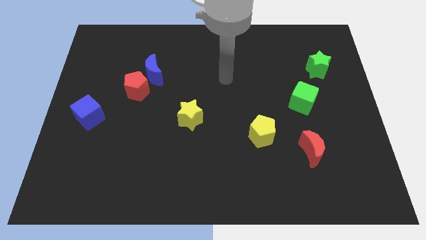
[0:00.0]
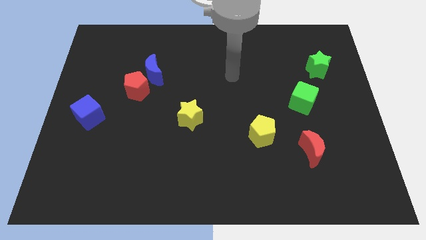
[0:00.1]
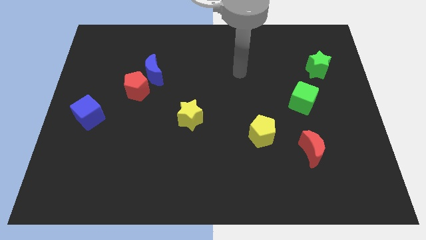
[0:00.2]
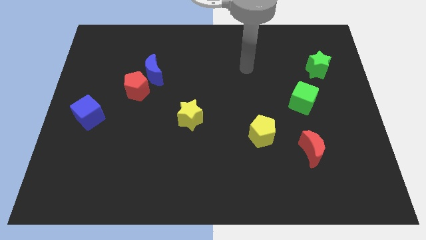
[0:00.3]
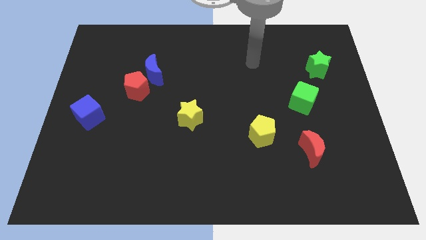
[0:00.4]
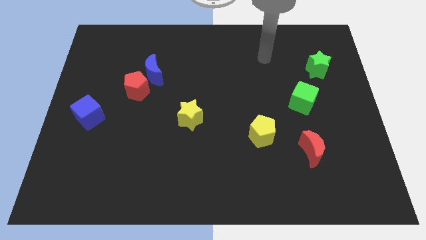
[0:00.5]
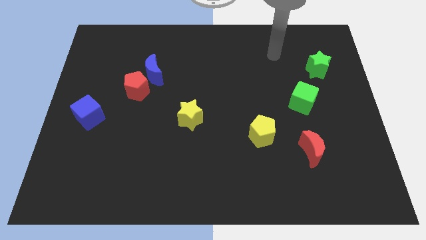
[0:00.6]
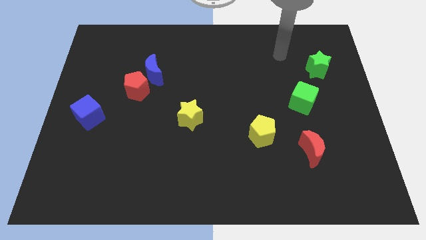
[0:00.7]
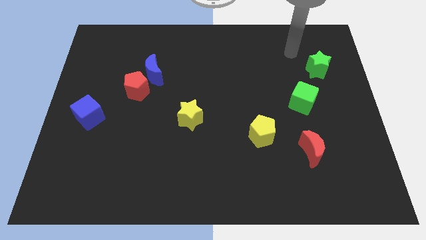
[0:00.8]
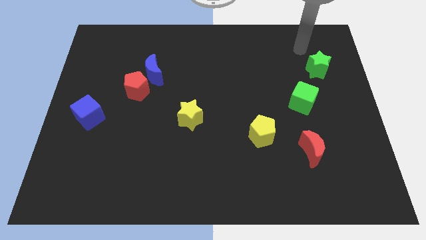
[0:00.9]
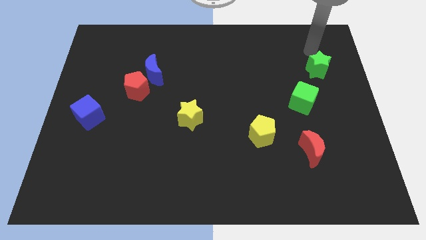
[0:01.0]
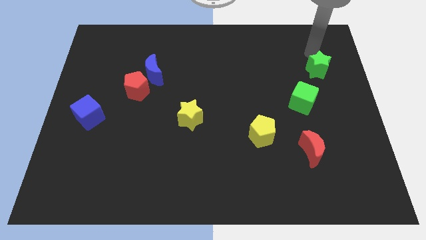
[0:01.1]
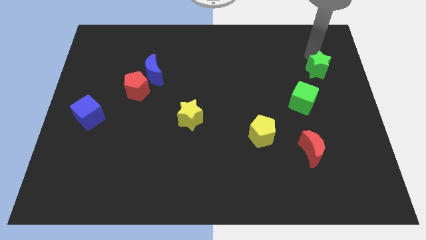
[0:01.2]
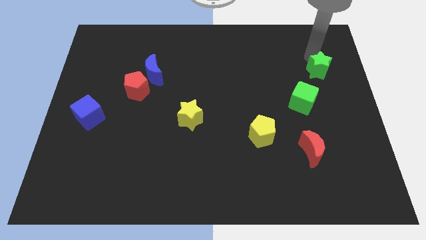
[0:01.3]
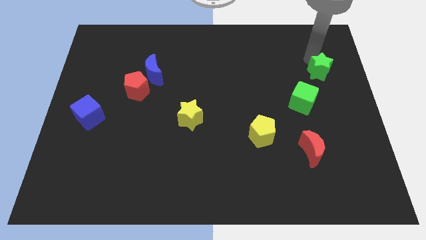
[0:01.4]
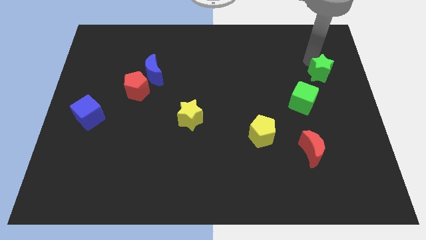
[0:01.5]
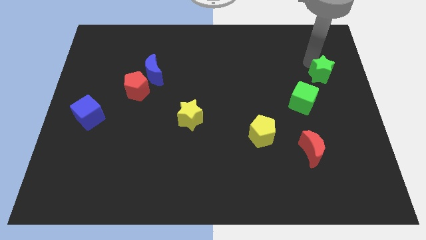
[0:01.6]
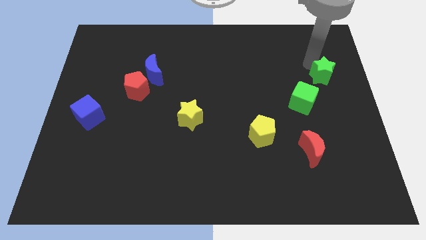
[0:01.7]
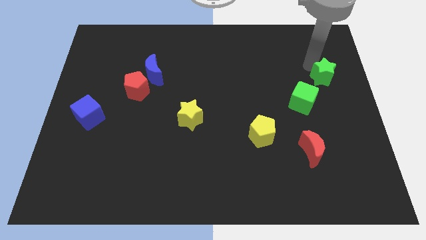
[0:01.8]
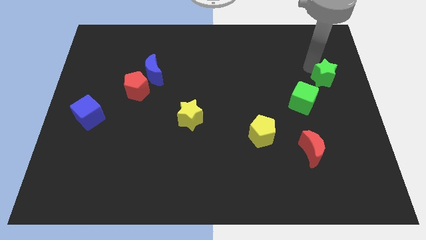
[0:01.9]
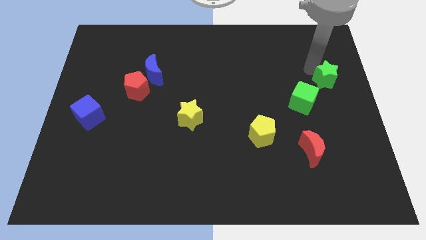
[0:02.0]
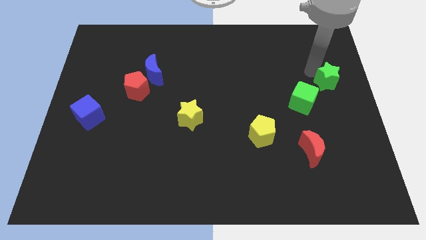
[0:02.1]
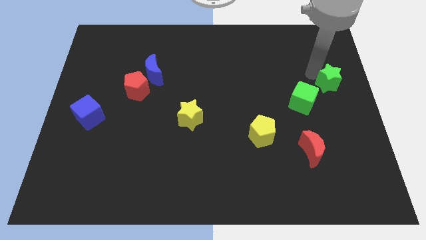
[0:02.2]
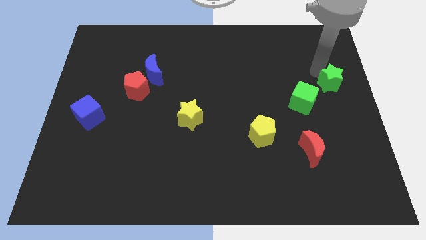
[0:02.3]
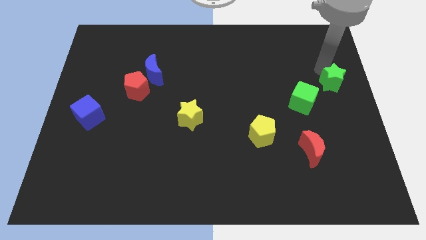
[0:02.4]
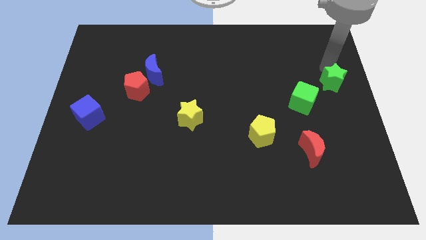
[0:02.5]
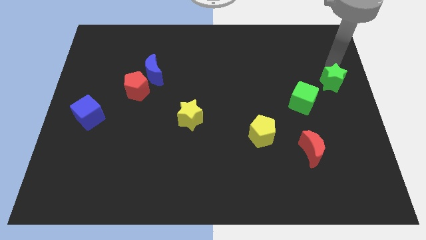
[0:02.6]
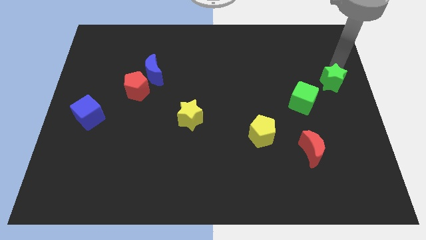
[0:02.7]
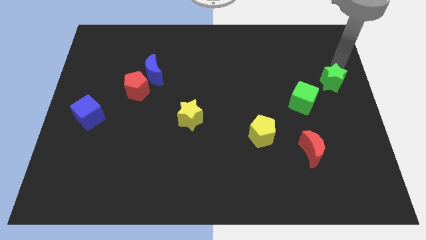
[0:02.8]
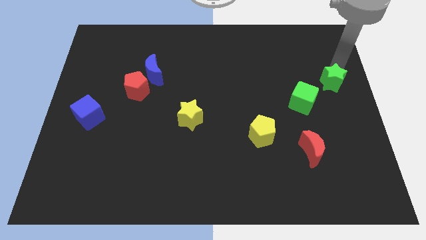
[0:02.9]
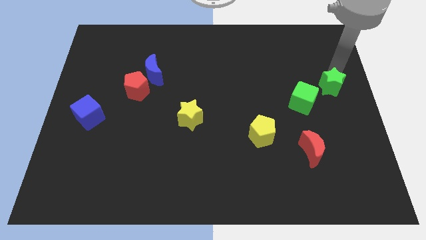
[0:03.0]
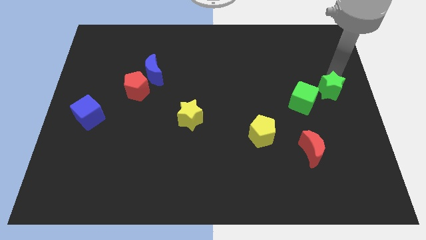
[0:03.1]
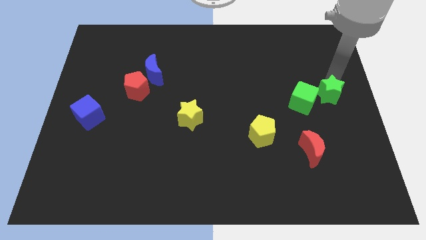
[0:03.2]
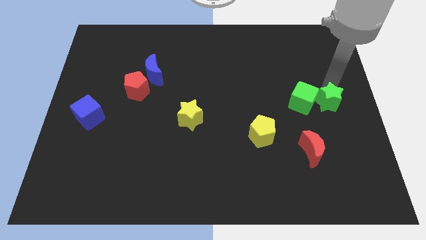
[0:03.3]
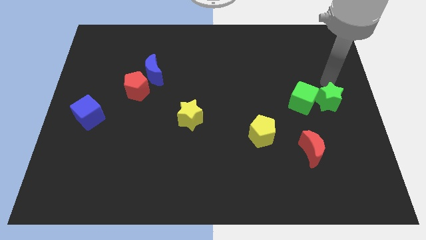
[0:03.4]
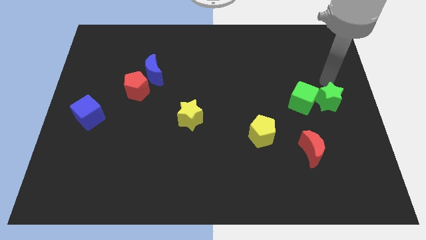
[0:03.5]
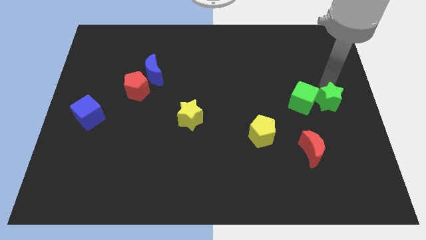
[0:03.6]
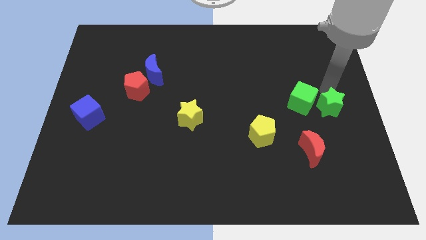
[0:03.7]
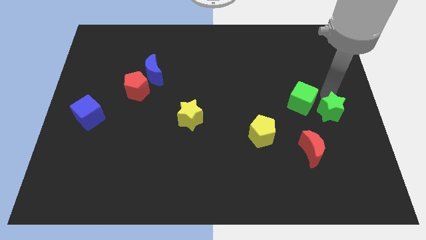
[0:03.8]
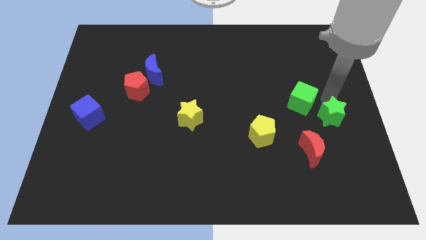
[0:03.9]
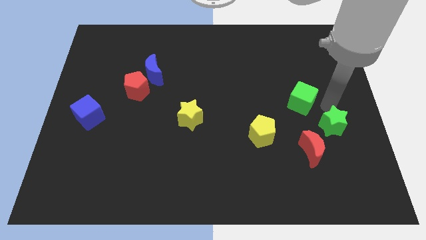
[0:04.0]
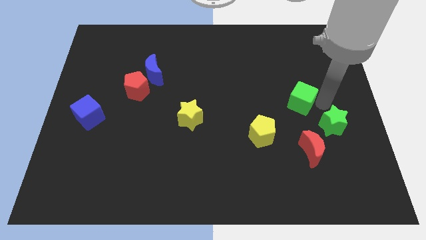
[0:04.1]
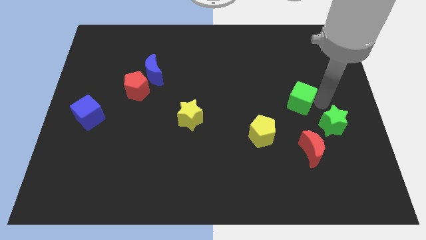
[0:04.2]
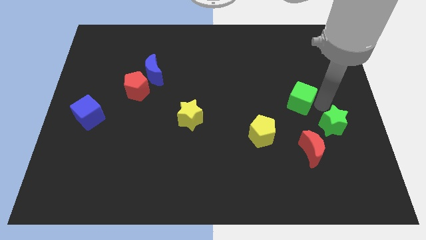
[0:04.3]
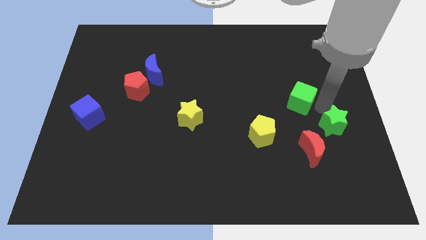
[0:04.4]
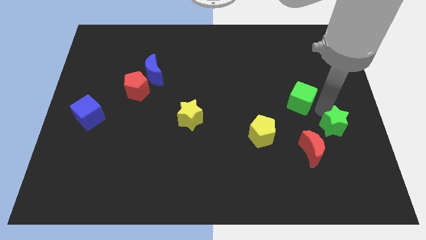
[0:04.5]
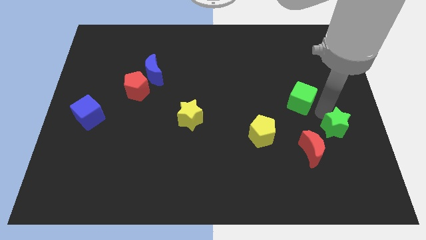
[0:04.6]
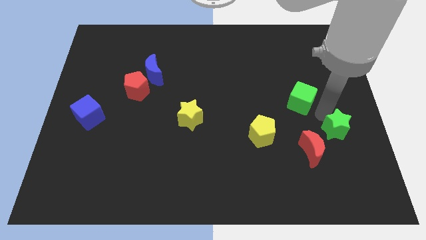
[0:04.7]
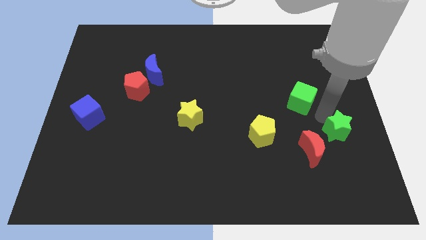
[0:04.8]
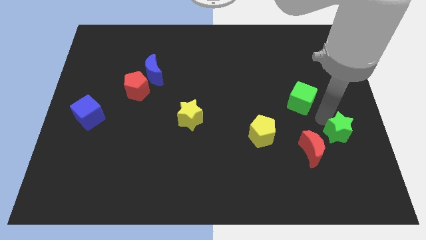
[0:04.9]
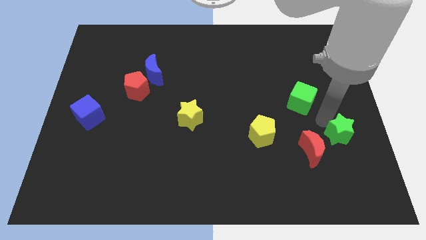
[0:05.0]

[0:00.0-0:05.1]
push the green star down

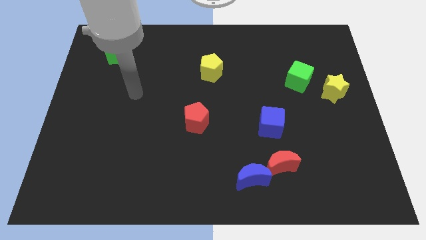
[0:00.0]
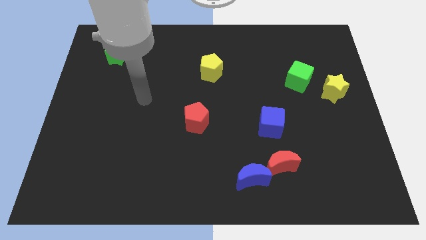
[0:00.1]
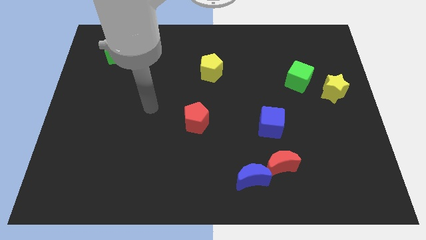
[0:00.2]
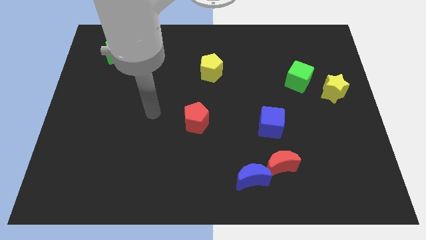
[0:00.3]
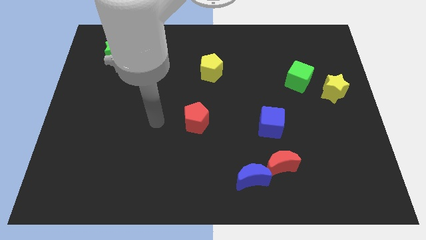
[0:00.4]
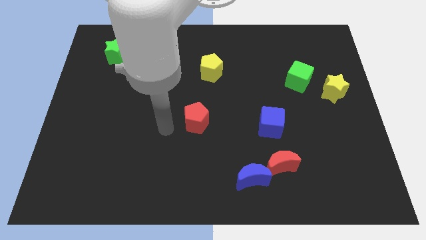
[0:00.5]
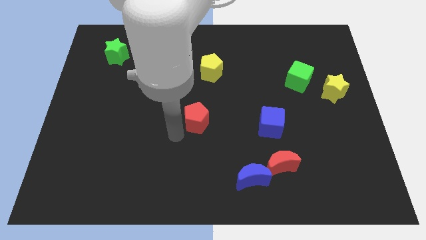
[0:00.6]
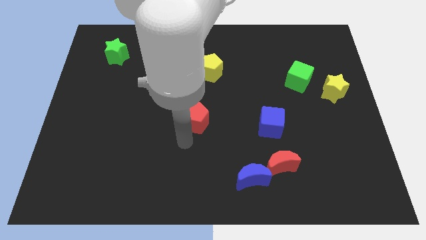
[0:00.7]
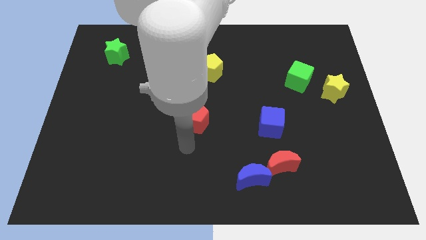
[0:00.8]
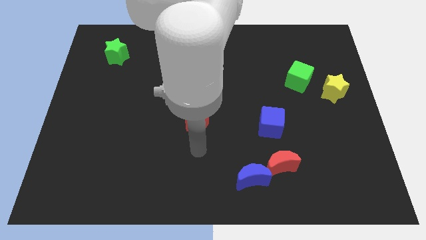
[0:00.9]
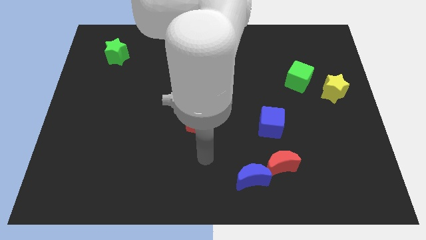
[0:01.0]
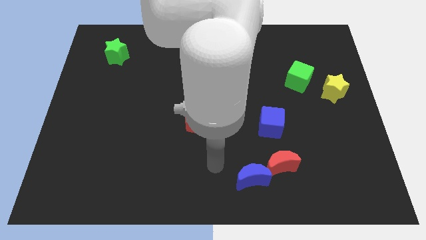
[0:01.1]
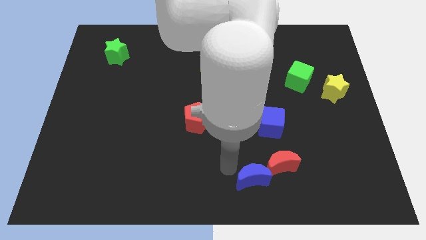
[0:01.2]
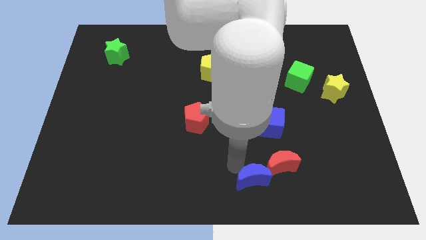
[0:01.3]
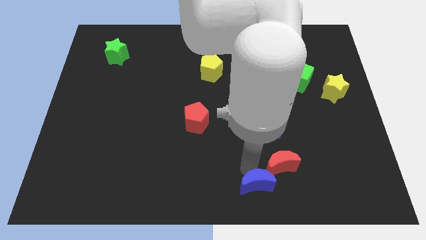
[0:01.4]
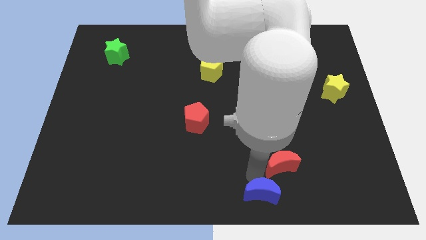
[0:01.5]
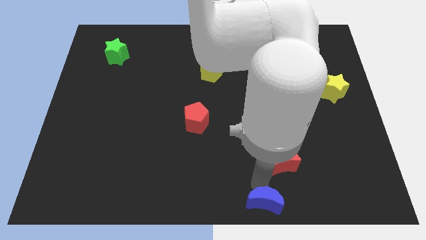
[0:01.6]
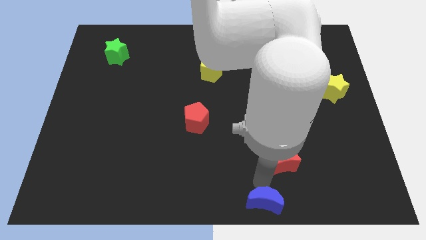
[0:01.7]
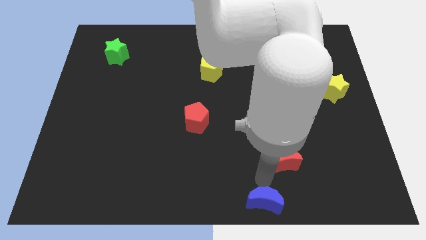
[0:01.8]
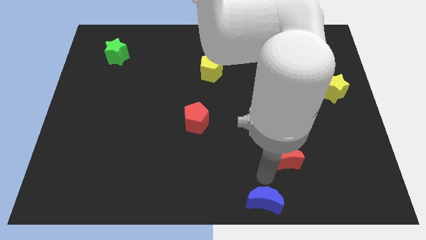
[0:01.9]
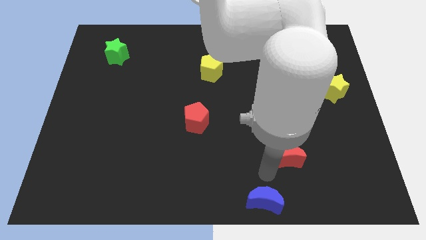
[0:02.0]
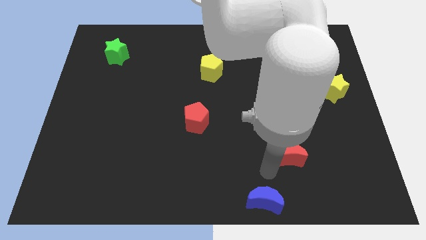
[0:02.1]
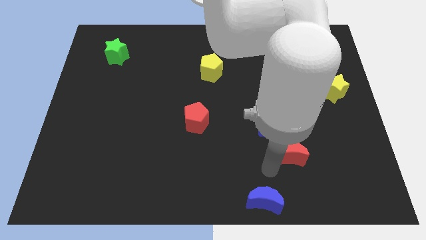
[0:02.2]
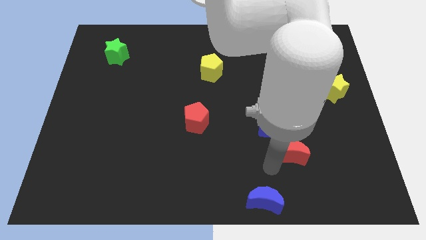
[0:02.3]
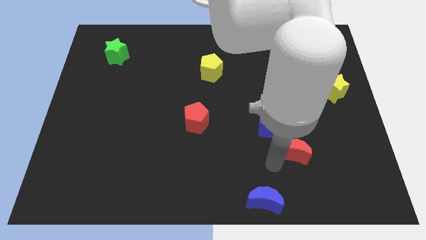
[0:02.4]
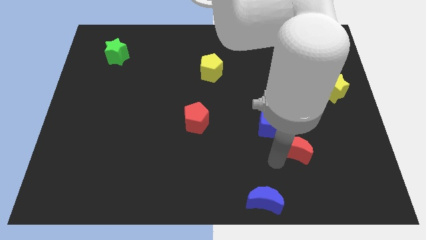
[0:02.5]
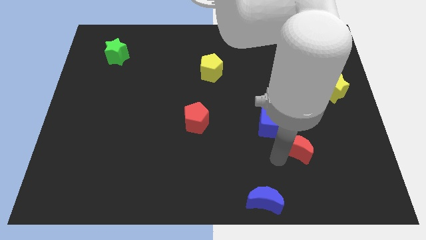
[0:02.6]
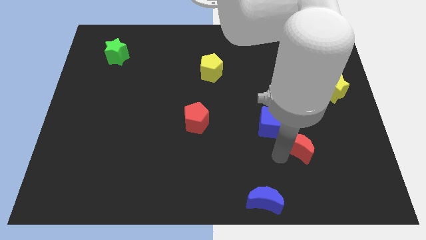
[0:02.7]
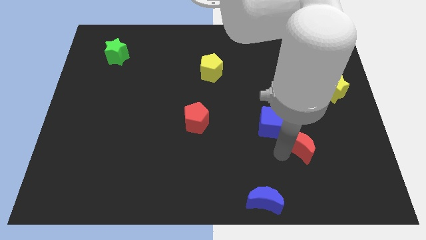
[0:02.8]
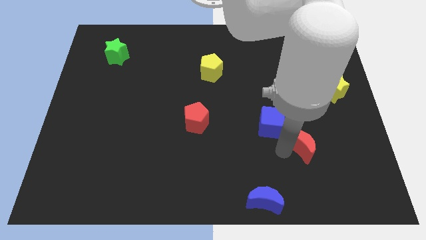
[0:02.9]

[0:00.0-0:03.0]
slightly move the red moon diagonally up and to the right
